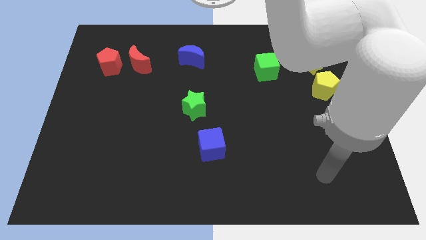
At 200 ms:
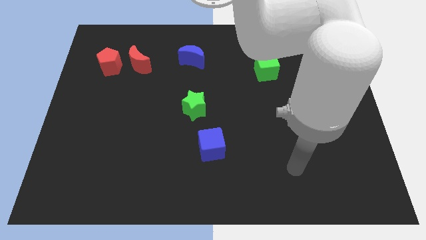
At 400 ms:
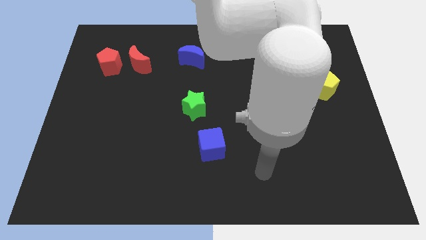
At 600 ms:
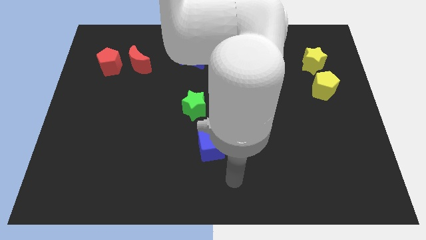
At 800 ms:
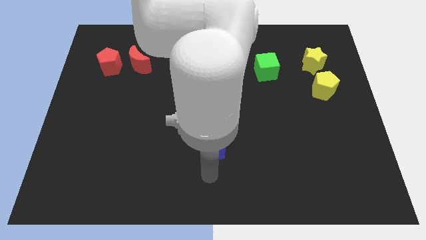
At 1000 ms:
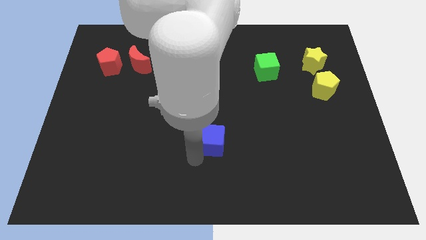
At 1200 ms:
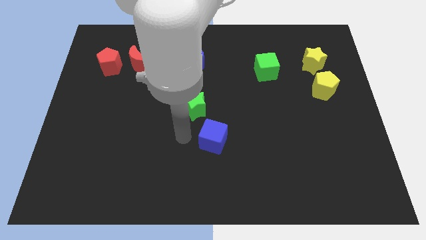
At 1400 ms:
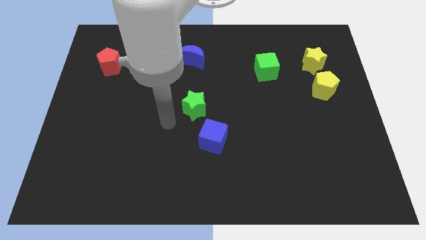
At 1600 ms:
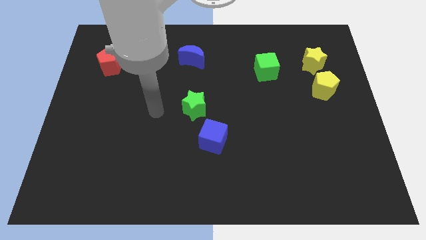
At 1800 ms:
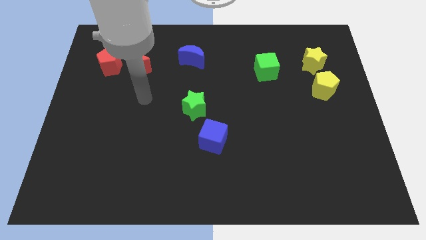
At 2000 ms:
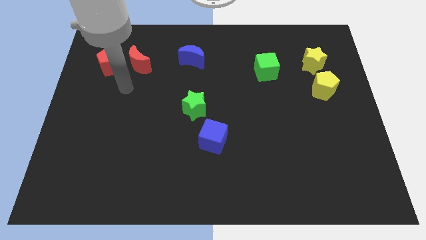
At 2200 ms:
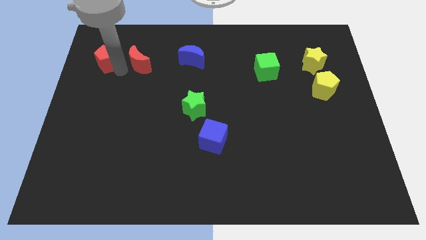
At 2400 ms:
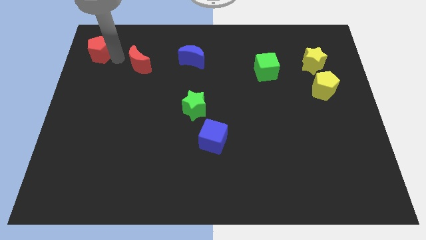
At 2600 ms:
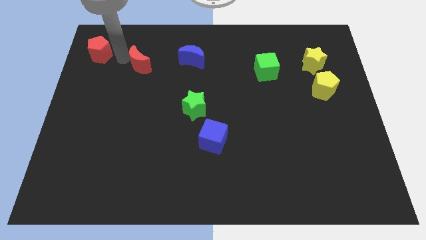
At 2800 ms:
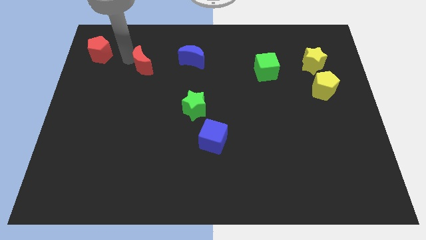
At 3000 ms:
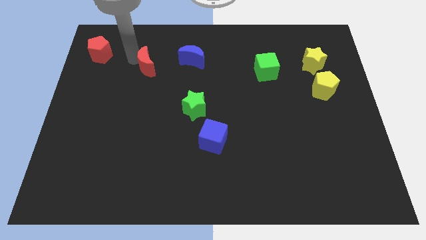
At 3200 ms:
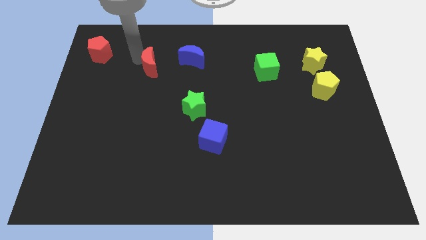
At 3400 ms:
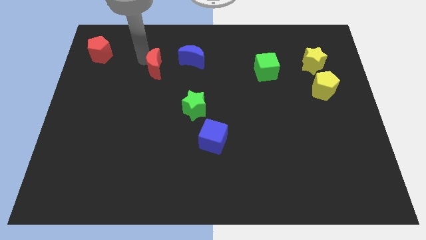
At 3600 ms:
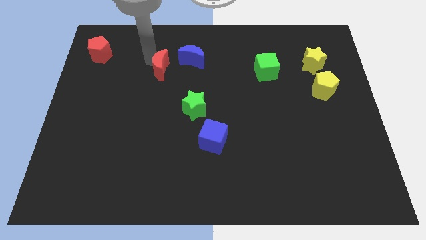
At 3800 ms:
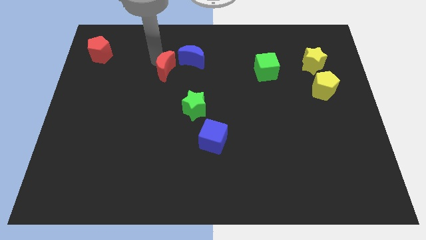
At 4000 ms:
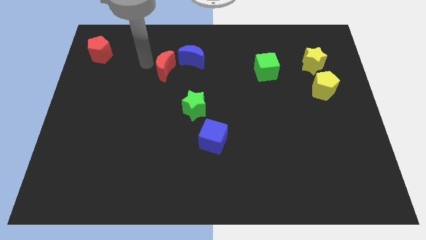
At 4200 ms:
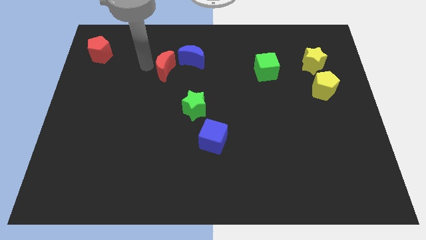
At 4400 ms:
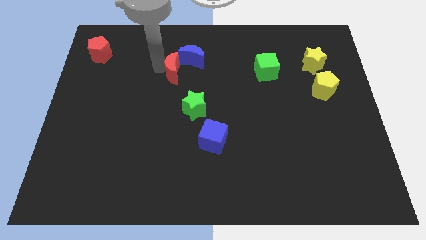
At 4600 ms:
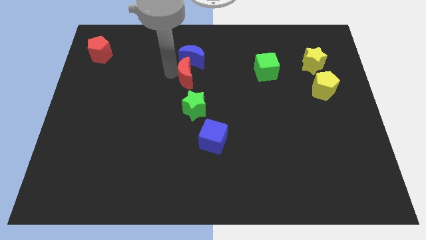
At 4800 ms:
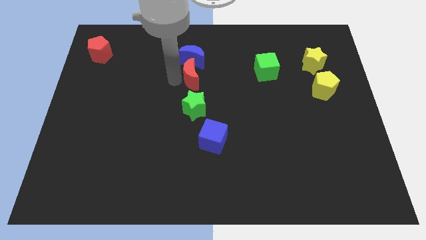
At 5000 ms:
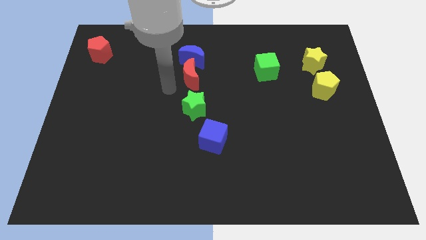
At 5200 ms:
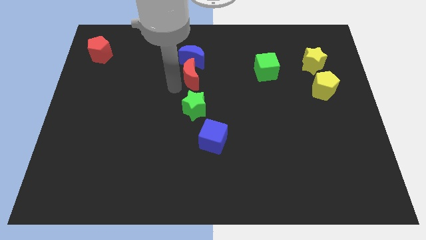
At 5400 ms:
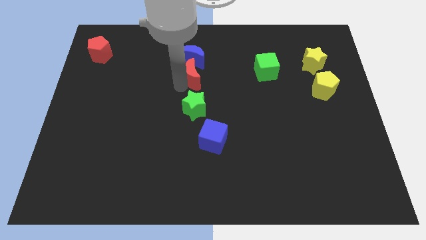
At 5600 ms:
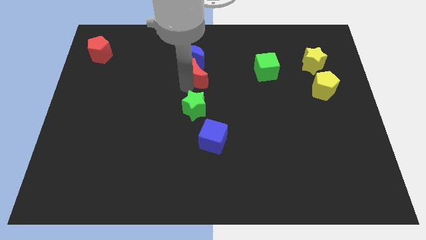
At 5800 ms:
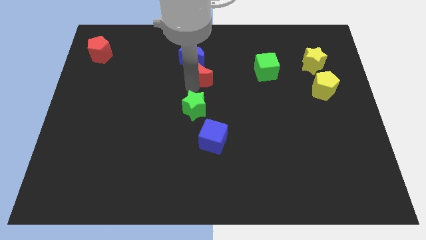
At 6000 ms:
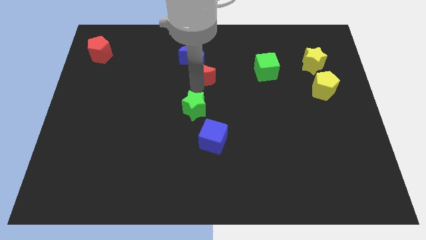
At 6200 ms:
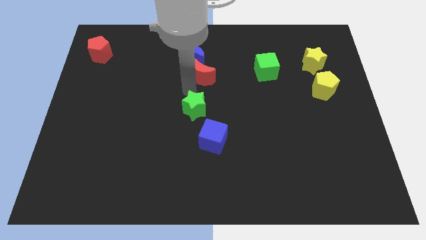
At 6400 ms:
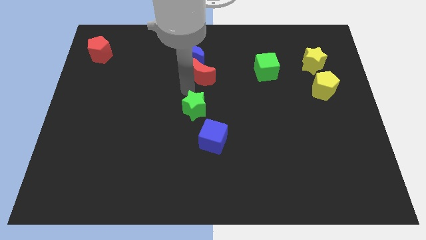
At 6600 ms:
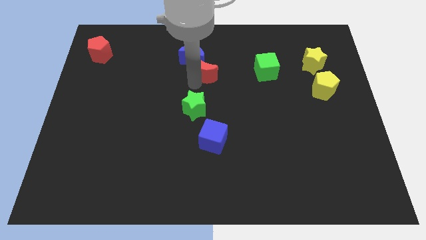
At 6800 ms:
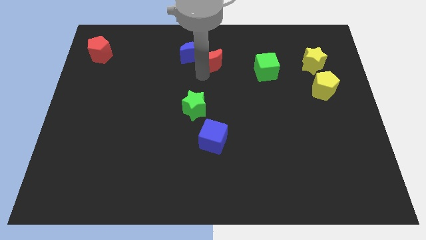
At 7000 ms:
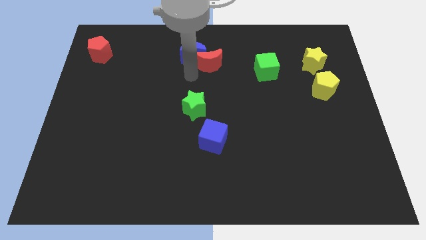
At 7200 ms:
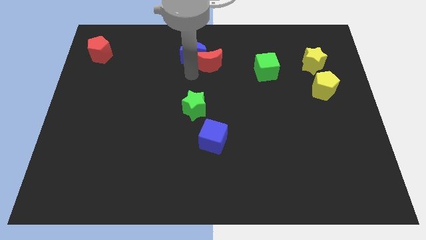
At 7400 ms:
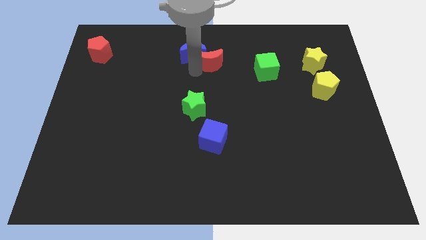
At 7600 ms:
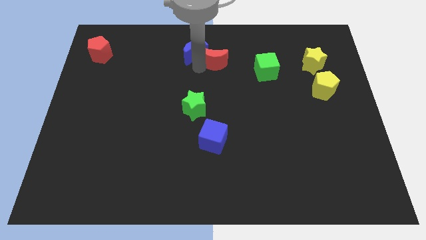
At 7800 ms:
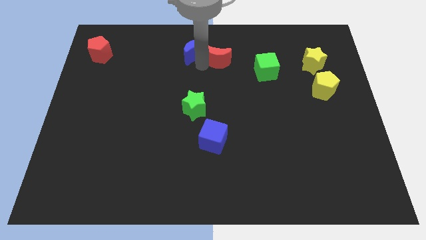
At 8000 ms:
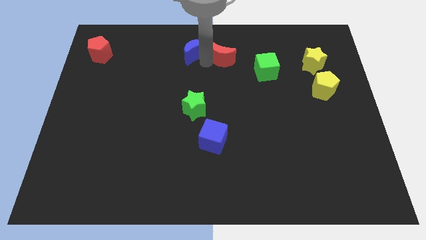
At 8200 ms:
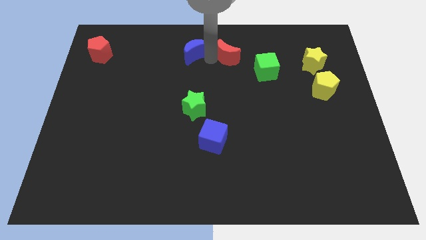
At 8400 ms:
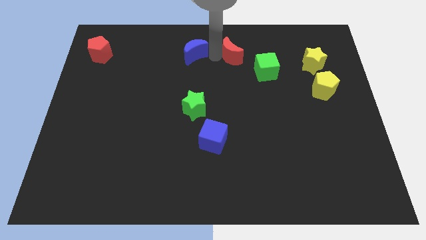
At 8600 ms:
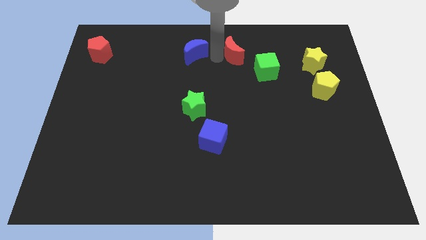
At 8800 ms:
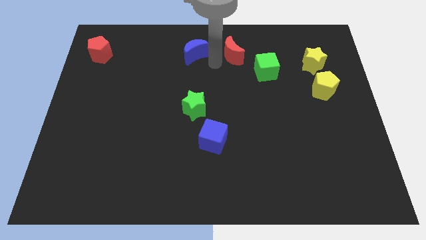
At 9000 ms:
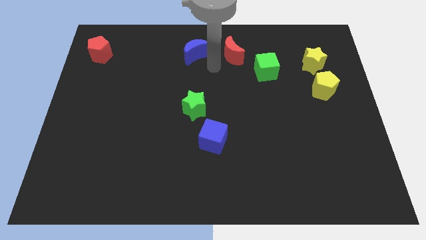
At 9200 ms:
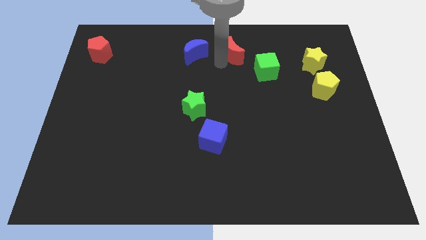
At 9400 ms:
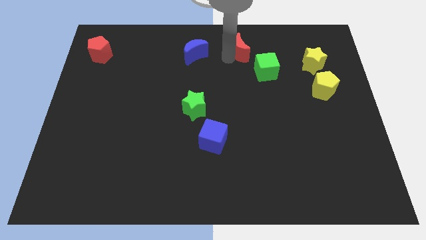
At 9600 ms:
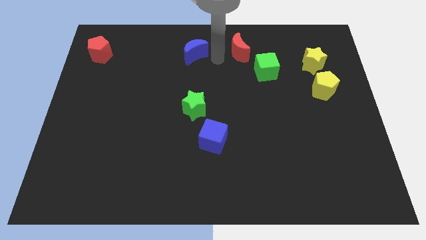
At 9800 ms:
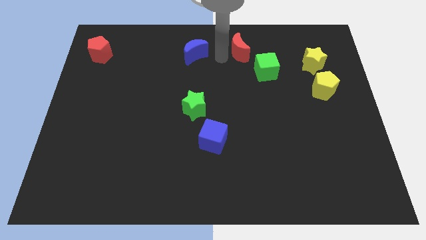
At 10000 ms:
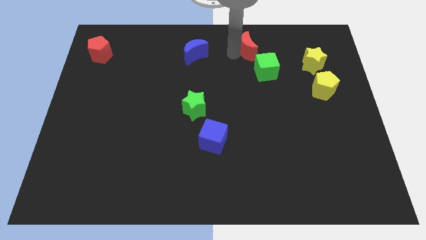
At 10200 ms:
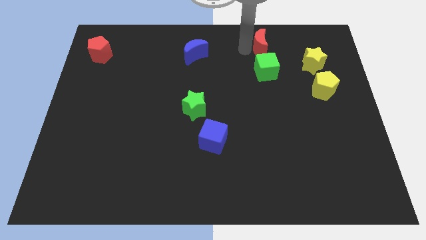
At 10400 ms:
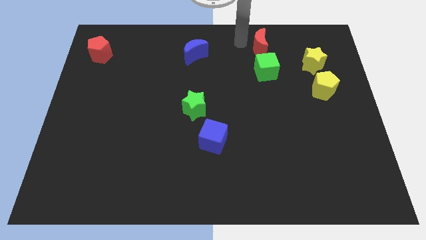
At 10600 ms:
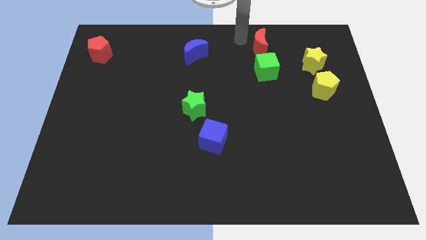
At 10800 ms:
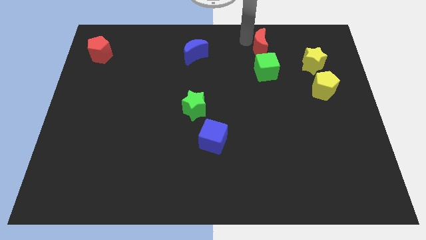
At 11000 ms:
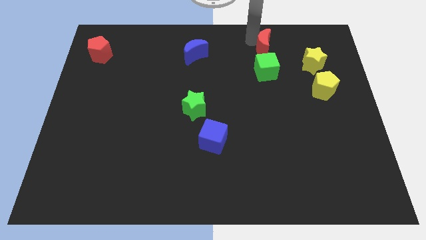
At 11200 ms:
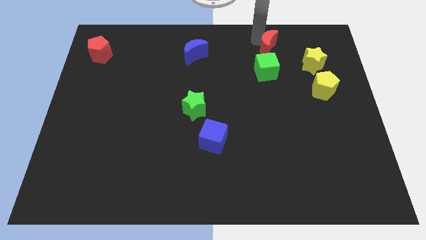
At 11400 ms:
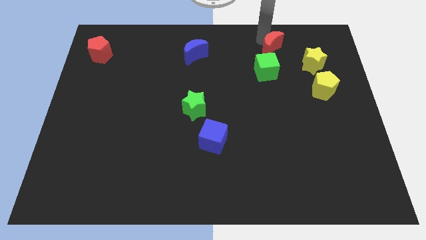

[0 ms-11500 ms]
slide the red moon to the top right of the green cube

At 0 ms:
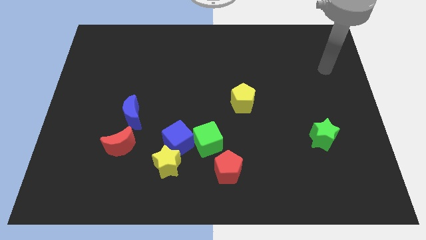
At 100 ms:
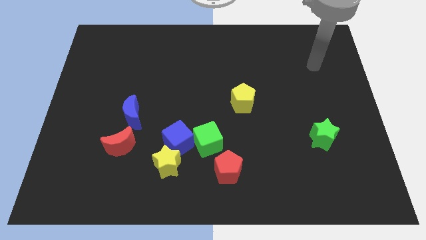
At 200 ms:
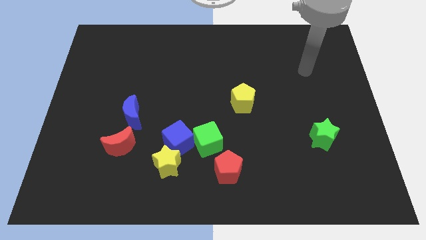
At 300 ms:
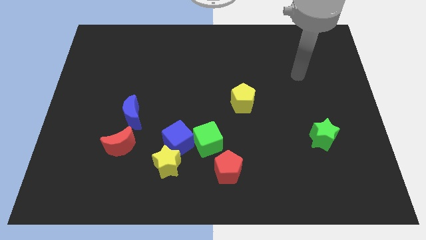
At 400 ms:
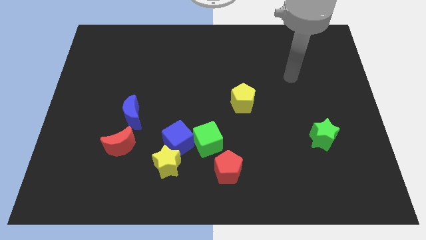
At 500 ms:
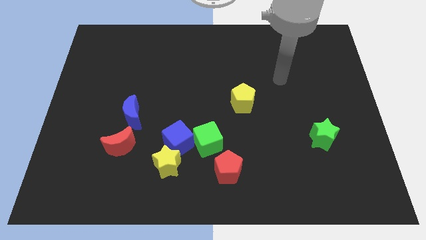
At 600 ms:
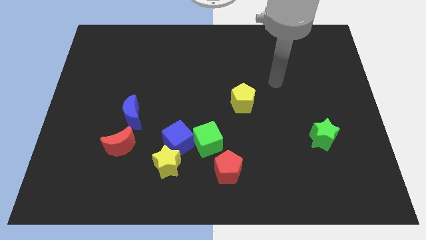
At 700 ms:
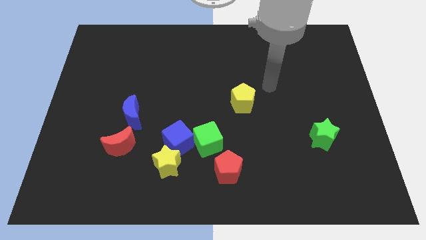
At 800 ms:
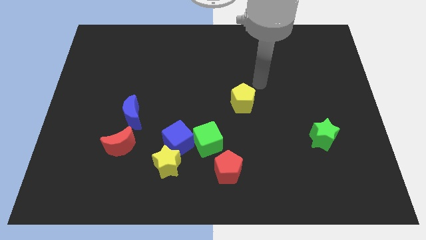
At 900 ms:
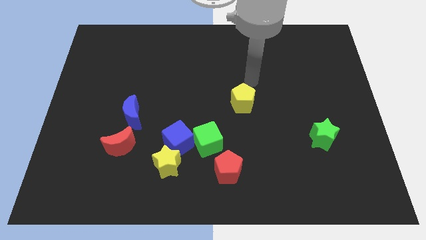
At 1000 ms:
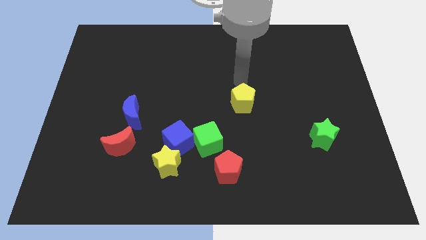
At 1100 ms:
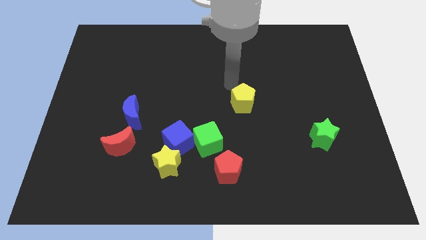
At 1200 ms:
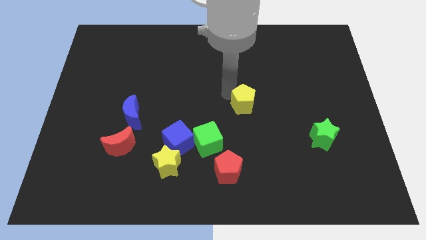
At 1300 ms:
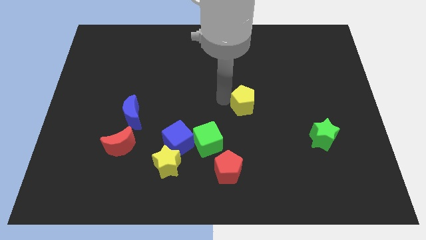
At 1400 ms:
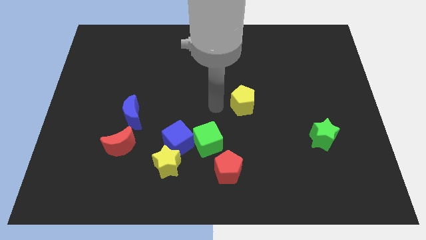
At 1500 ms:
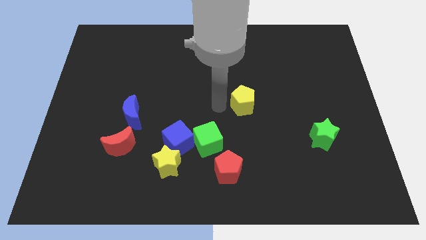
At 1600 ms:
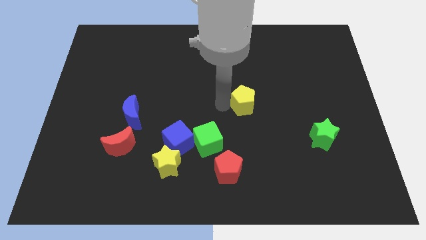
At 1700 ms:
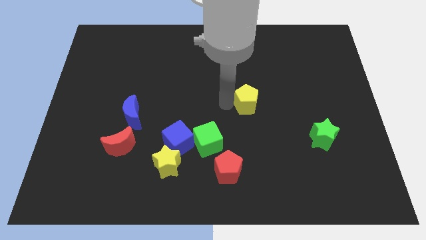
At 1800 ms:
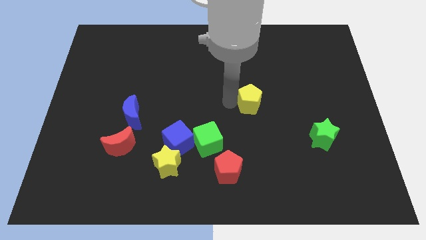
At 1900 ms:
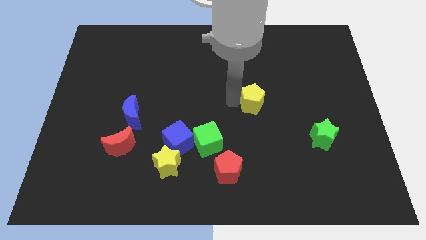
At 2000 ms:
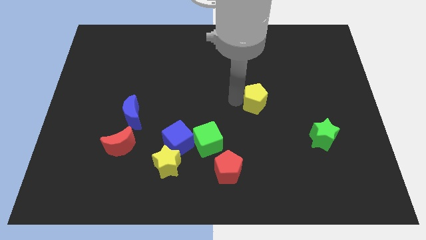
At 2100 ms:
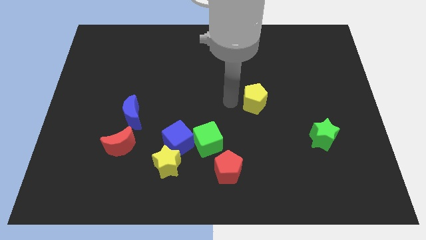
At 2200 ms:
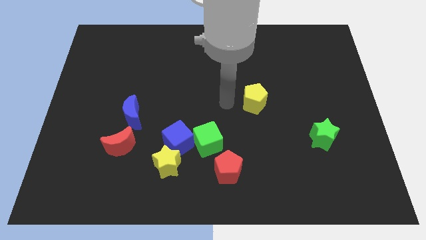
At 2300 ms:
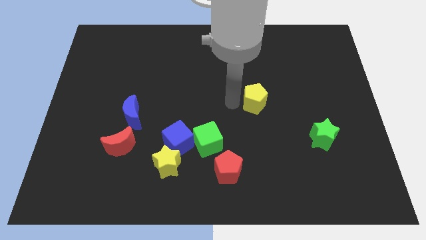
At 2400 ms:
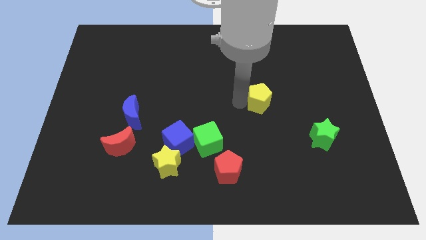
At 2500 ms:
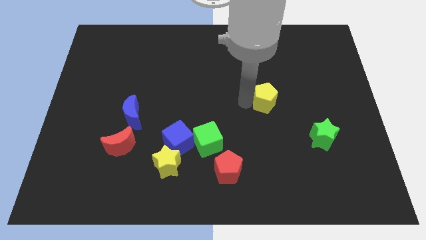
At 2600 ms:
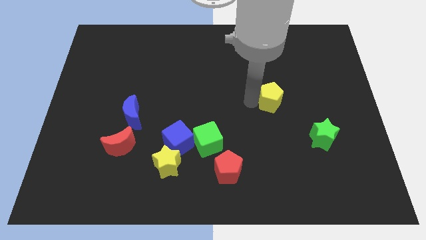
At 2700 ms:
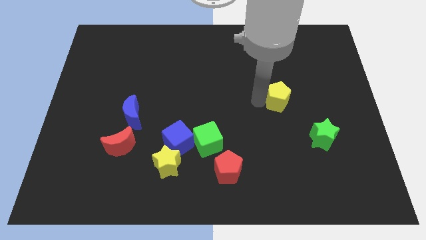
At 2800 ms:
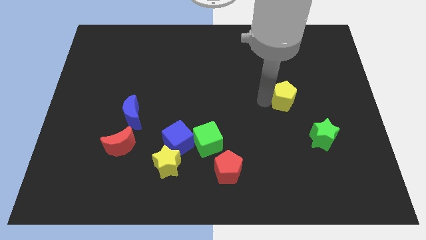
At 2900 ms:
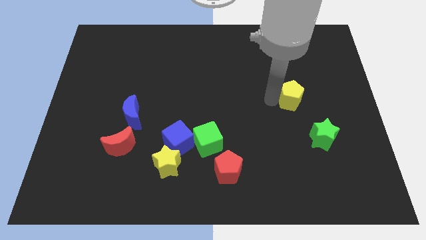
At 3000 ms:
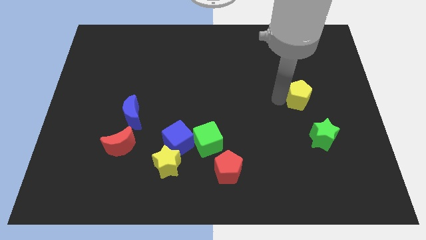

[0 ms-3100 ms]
put the yellow pentagon to the top side of the green star
